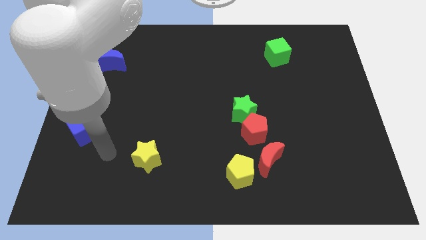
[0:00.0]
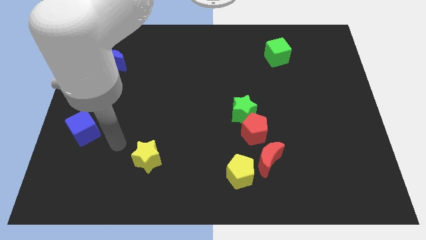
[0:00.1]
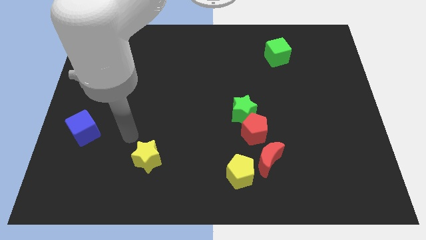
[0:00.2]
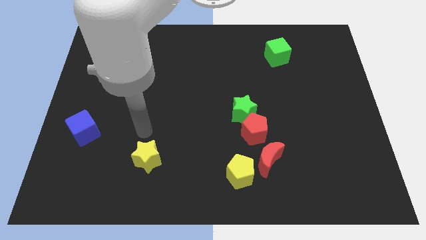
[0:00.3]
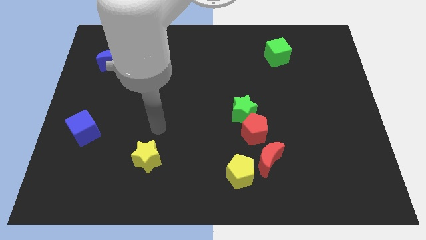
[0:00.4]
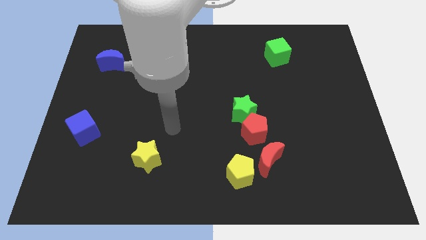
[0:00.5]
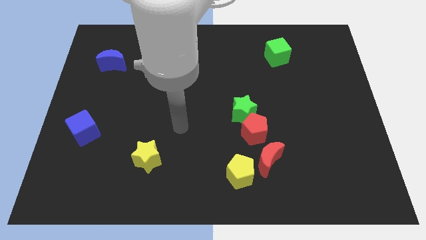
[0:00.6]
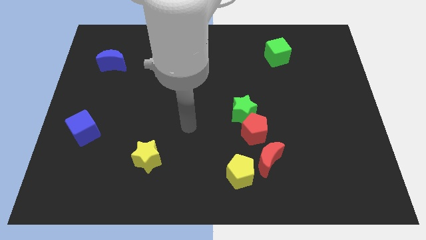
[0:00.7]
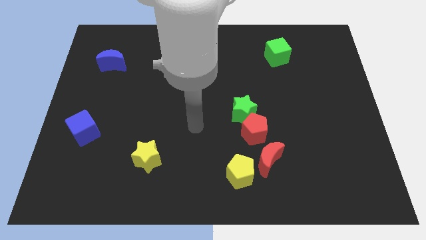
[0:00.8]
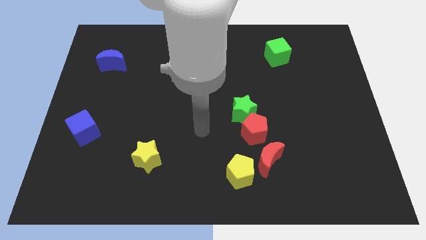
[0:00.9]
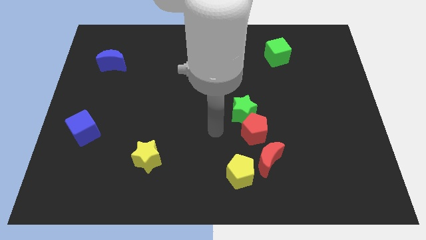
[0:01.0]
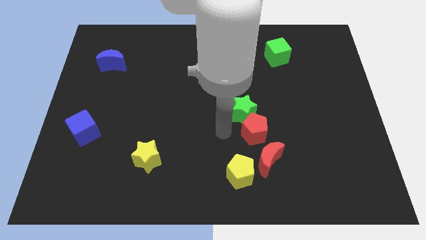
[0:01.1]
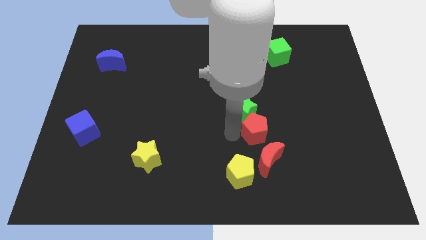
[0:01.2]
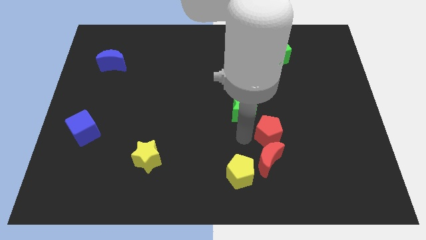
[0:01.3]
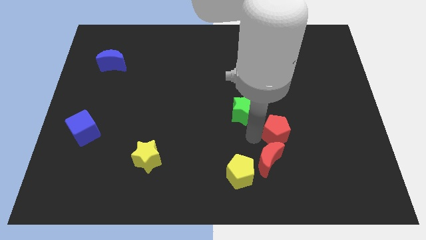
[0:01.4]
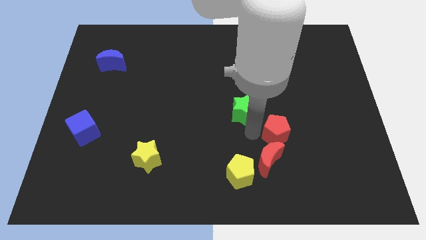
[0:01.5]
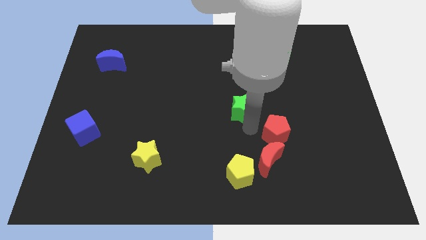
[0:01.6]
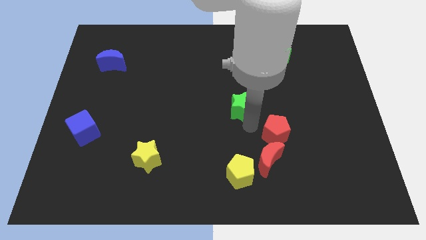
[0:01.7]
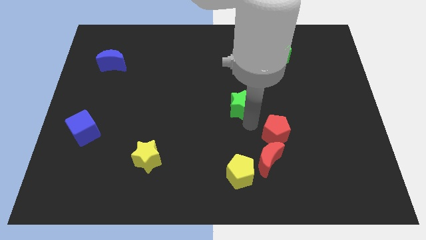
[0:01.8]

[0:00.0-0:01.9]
move the green star away from the red pentagon

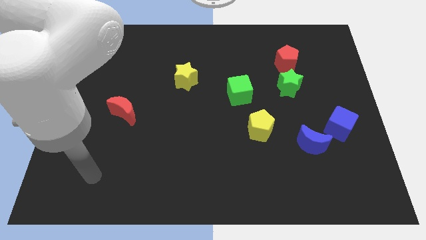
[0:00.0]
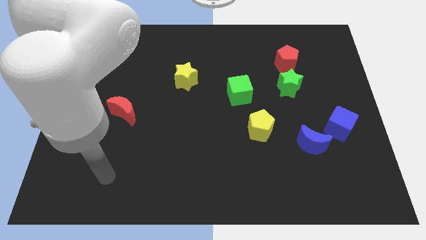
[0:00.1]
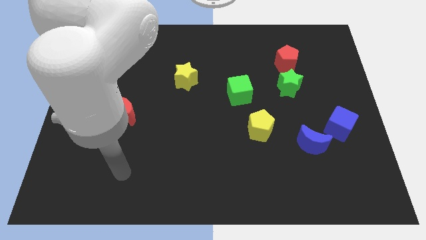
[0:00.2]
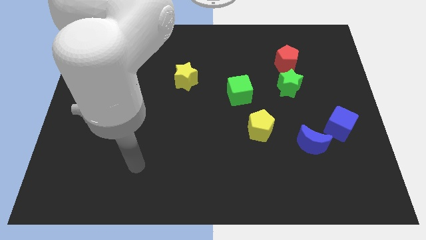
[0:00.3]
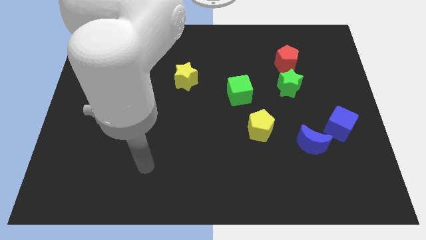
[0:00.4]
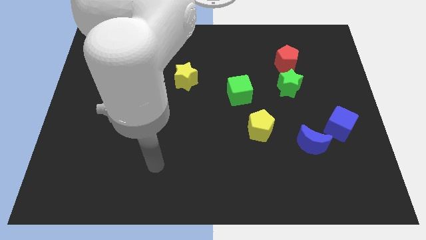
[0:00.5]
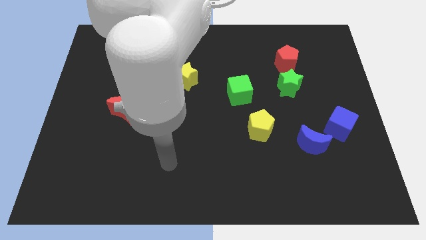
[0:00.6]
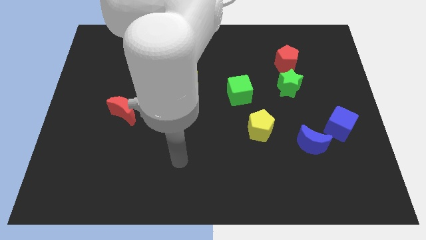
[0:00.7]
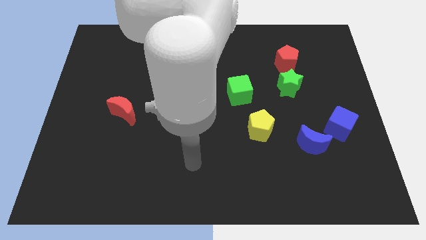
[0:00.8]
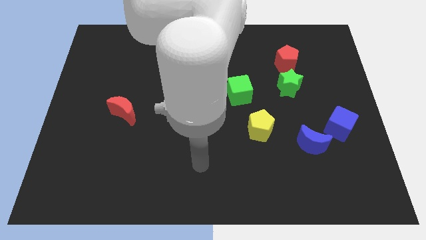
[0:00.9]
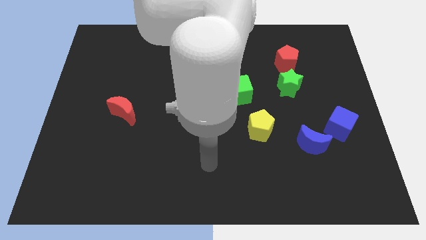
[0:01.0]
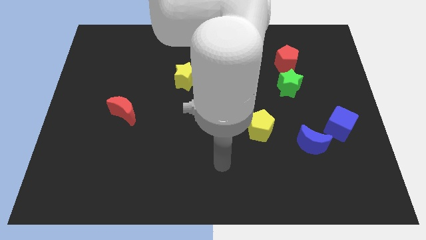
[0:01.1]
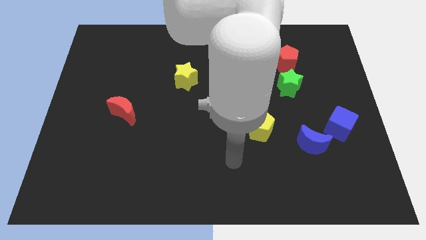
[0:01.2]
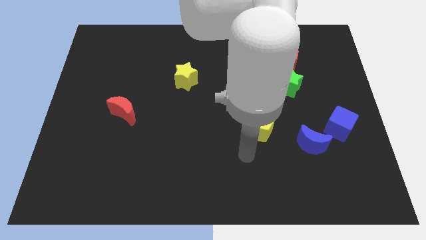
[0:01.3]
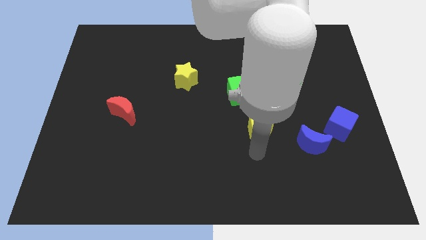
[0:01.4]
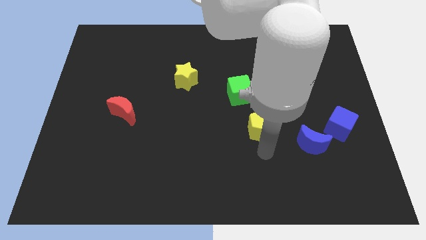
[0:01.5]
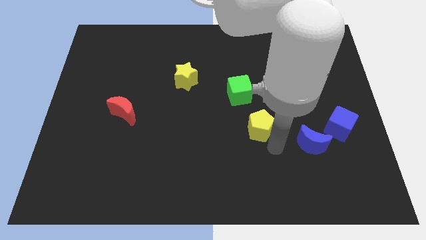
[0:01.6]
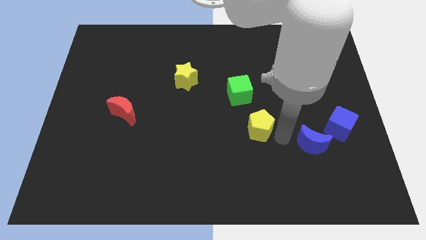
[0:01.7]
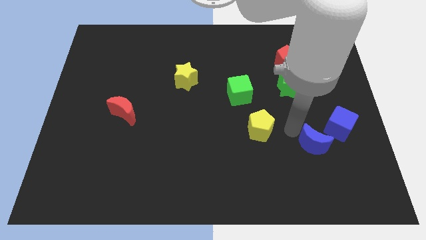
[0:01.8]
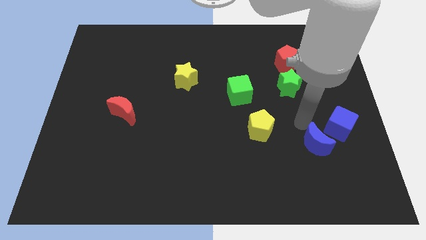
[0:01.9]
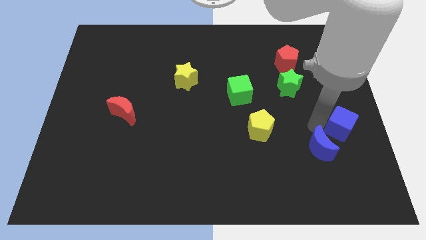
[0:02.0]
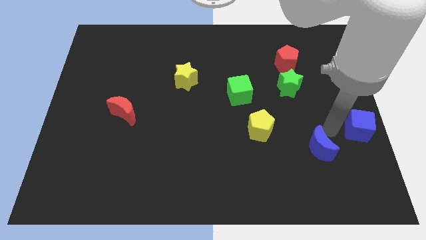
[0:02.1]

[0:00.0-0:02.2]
separate the blue moon from the blue cube

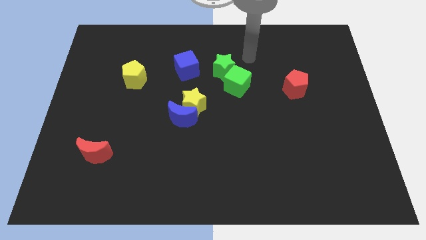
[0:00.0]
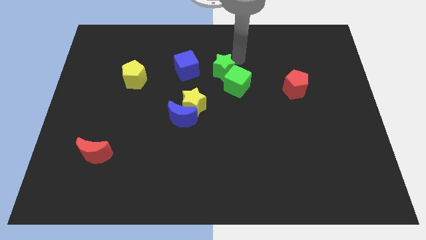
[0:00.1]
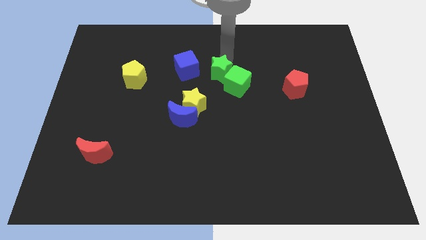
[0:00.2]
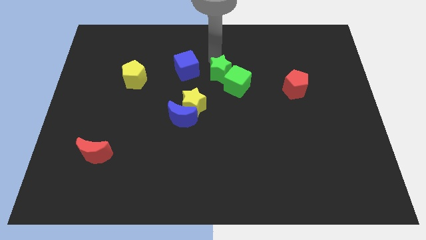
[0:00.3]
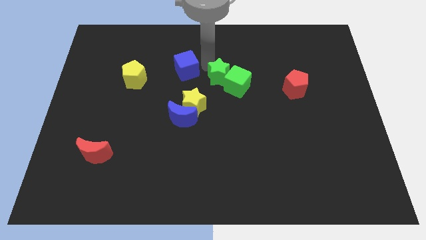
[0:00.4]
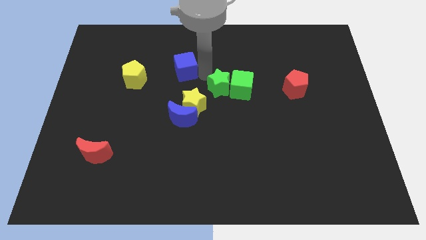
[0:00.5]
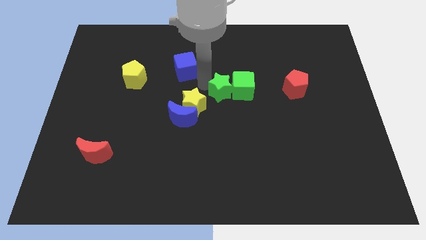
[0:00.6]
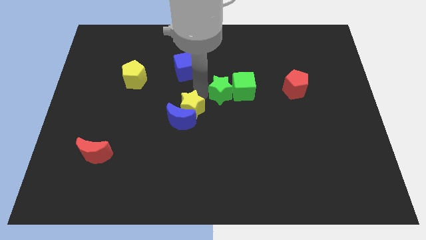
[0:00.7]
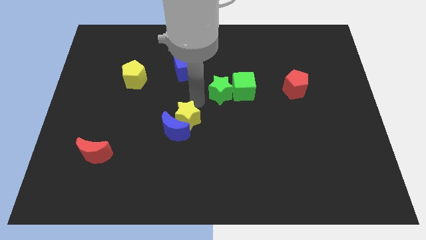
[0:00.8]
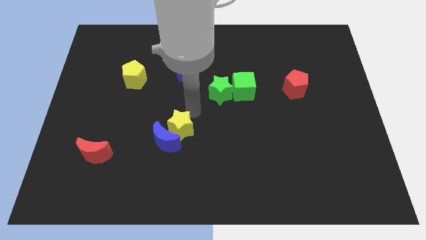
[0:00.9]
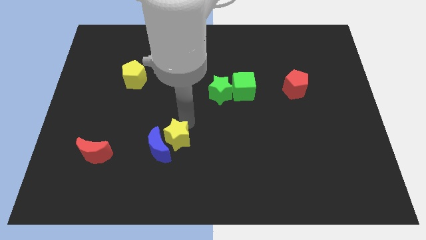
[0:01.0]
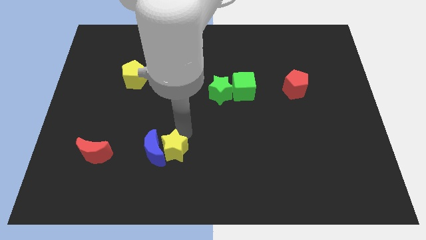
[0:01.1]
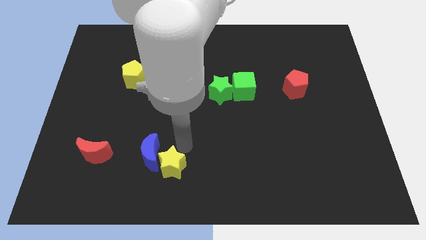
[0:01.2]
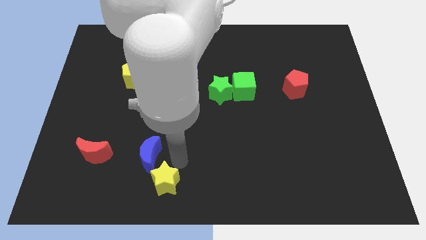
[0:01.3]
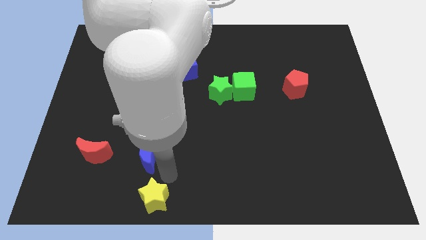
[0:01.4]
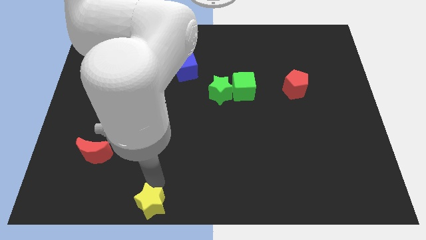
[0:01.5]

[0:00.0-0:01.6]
pull the blue moon apart from the yellow star

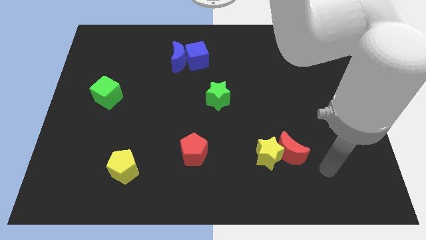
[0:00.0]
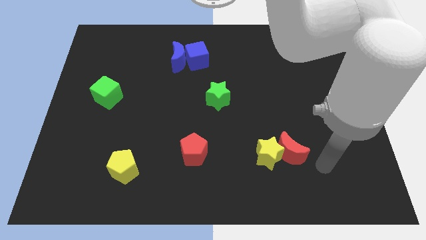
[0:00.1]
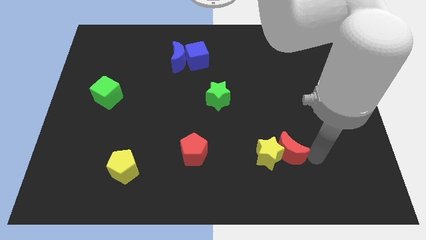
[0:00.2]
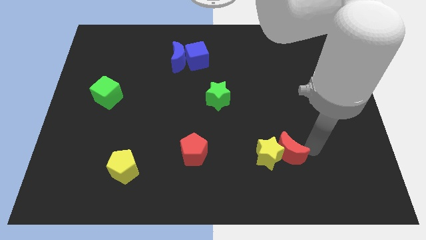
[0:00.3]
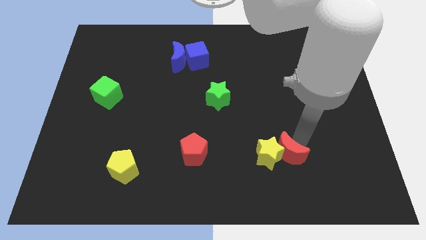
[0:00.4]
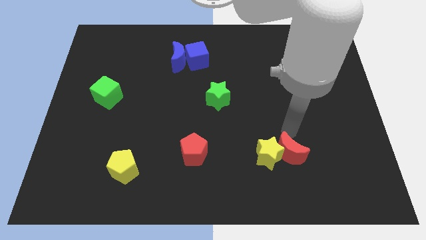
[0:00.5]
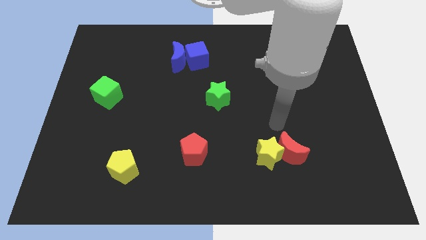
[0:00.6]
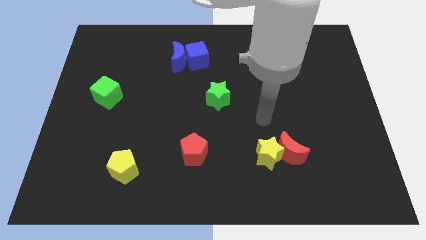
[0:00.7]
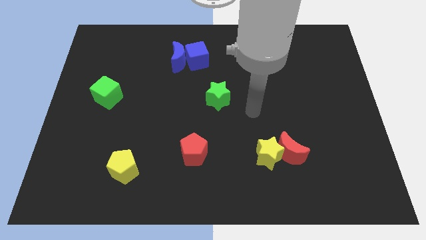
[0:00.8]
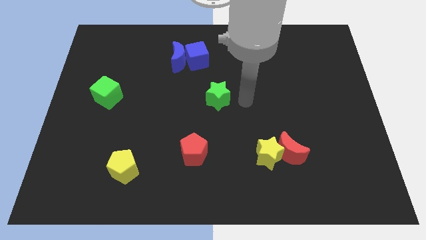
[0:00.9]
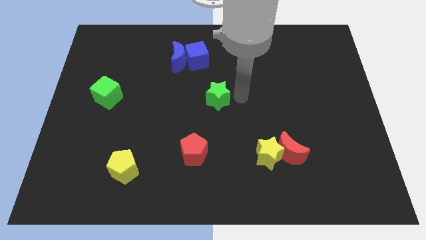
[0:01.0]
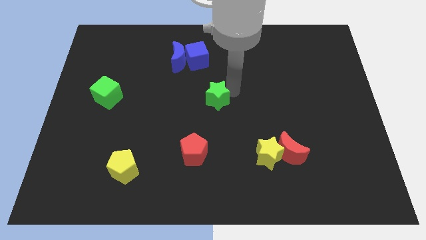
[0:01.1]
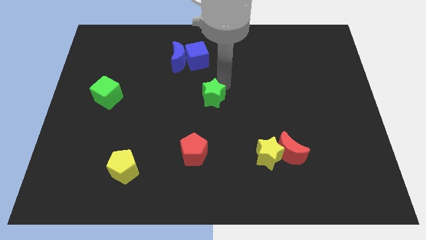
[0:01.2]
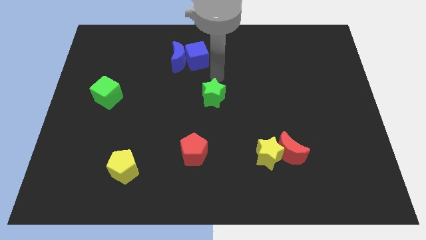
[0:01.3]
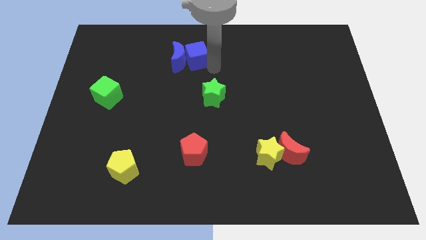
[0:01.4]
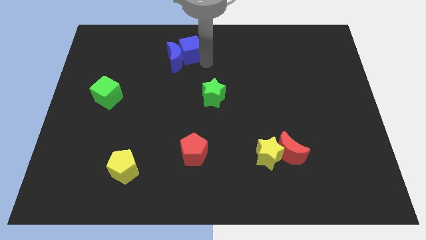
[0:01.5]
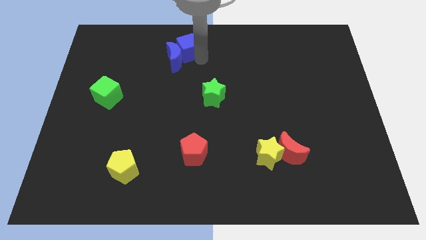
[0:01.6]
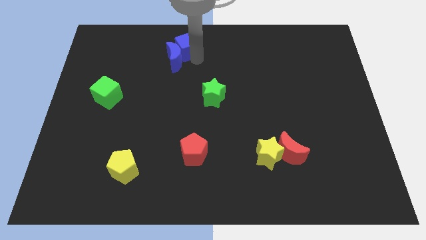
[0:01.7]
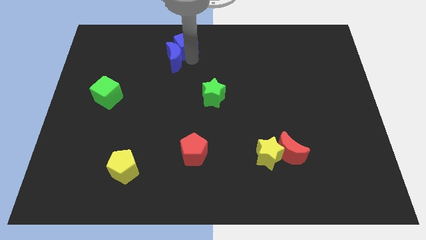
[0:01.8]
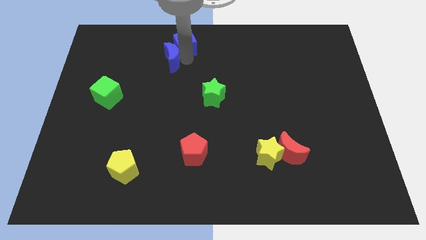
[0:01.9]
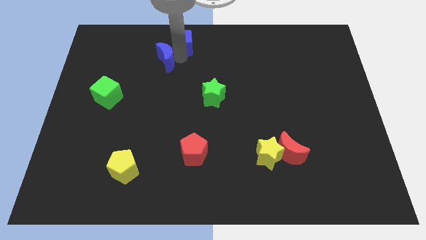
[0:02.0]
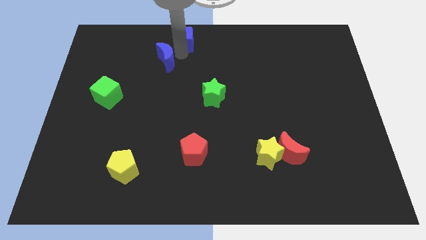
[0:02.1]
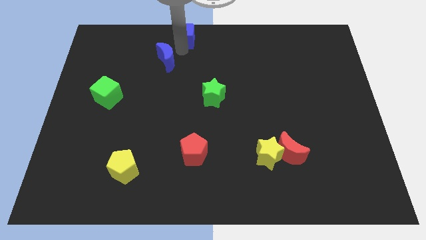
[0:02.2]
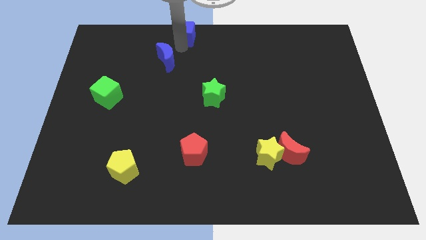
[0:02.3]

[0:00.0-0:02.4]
pull the blue moon apart from the blue cube

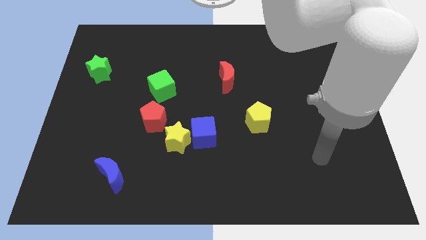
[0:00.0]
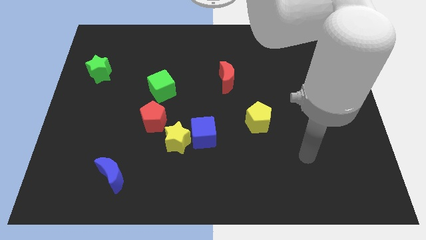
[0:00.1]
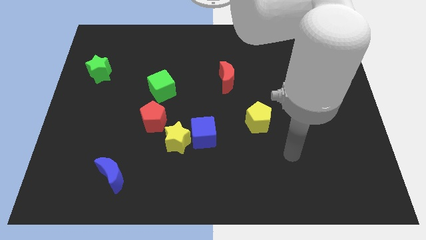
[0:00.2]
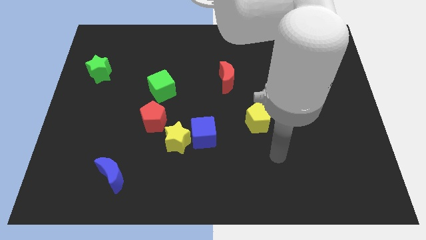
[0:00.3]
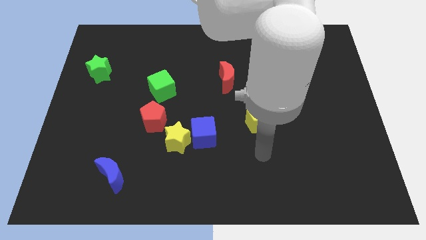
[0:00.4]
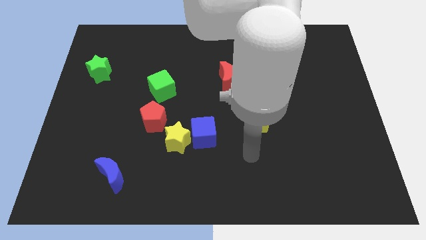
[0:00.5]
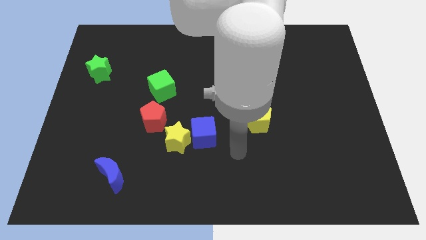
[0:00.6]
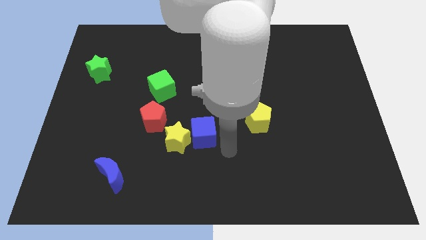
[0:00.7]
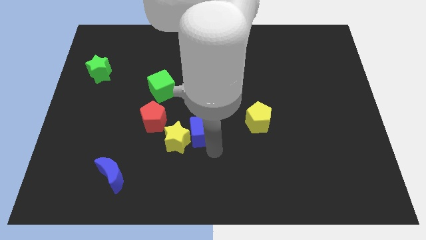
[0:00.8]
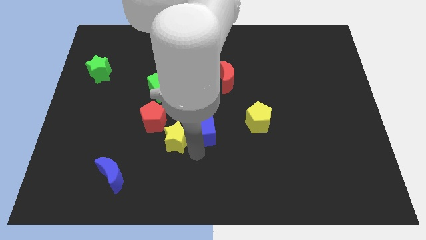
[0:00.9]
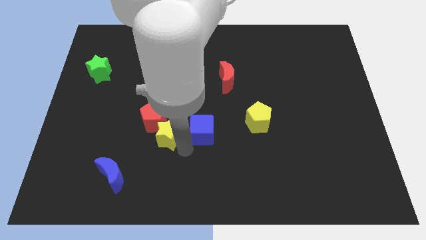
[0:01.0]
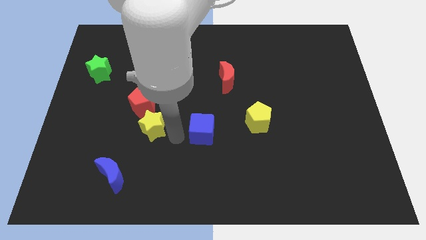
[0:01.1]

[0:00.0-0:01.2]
pull the blue cube apart from the yellow star
